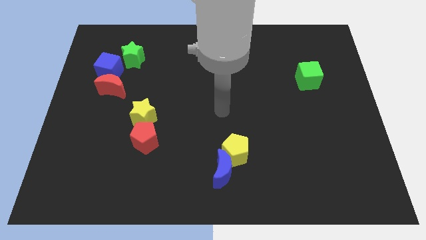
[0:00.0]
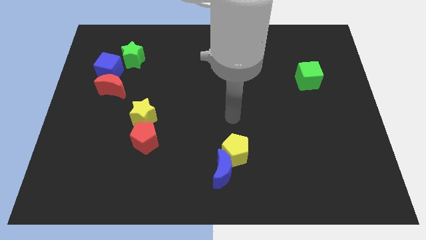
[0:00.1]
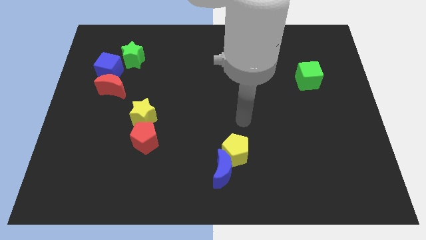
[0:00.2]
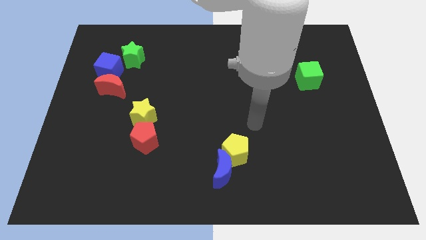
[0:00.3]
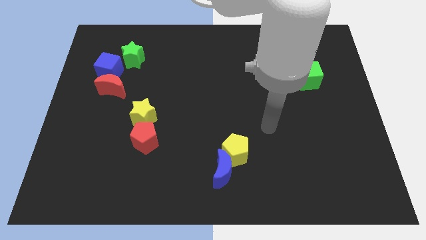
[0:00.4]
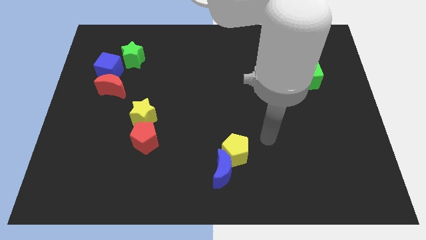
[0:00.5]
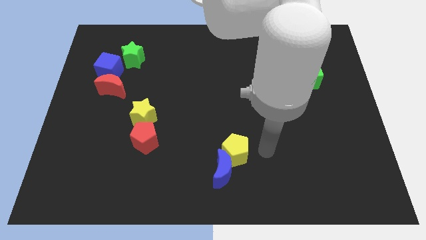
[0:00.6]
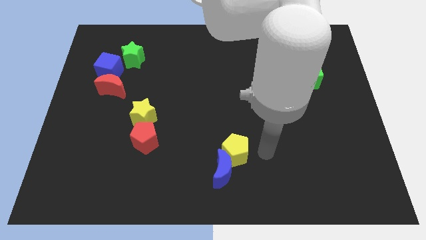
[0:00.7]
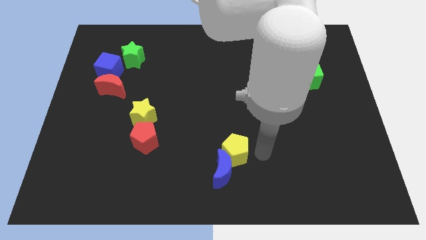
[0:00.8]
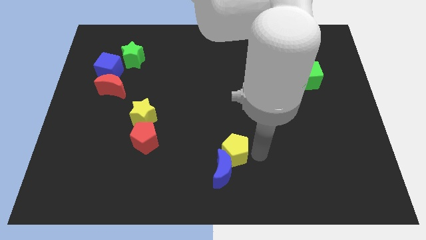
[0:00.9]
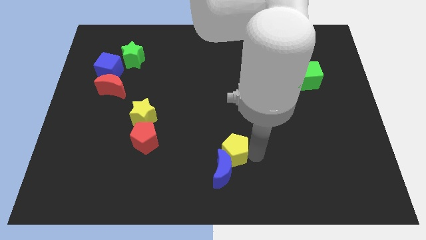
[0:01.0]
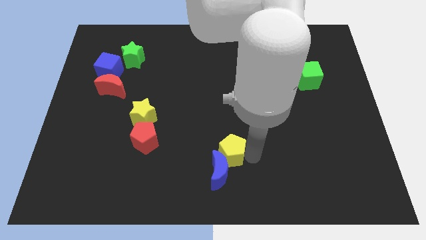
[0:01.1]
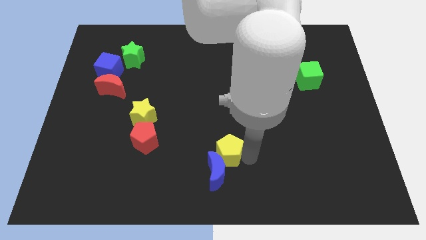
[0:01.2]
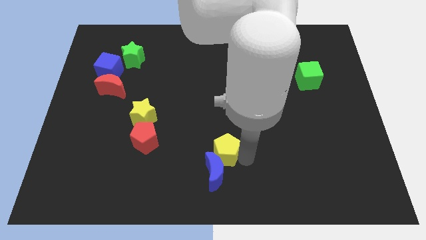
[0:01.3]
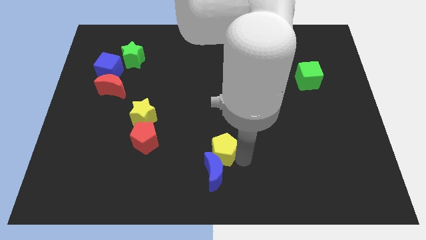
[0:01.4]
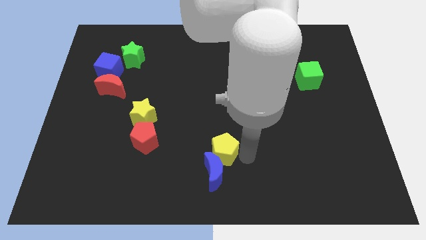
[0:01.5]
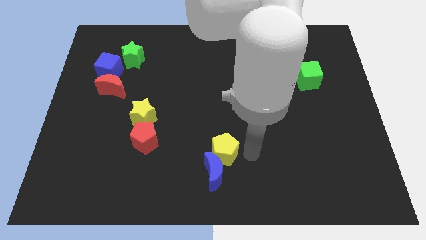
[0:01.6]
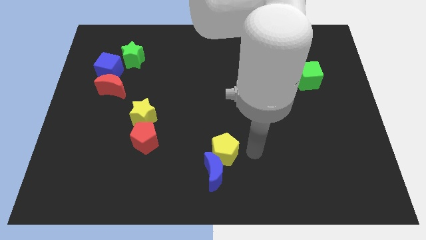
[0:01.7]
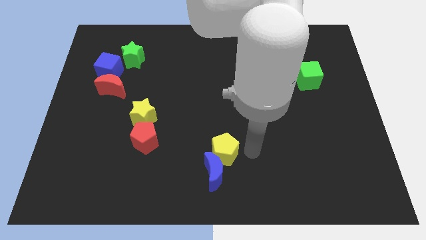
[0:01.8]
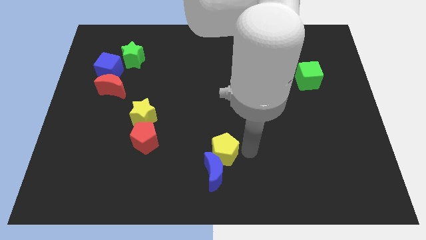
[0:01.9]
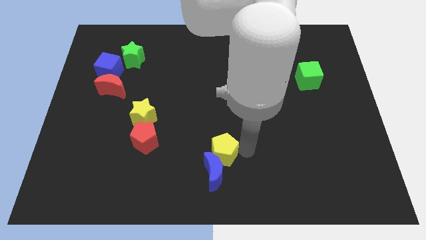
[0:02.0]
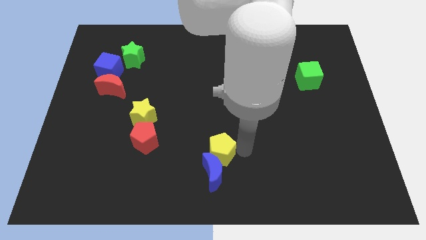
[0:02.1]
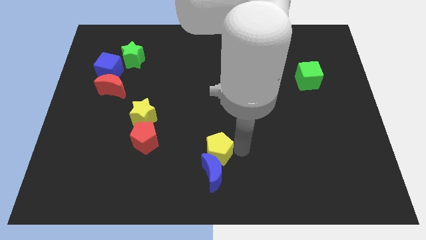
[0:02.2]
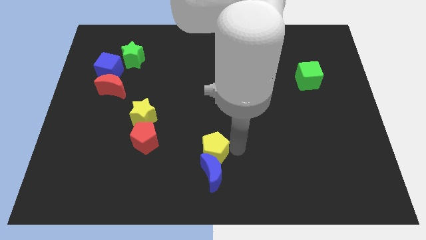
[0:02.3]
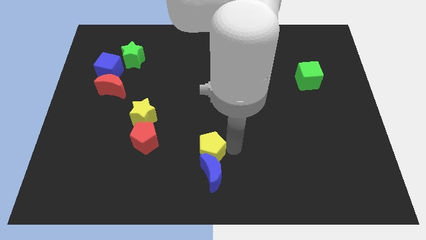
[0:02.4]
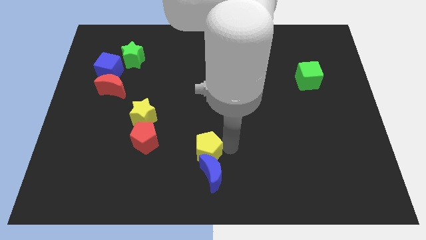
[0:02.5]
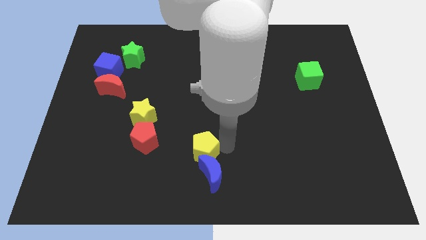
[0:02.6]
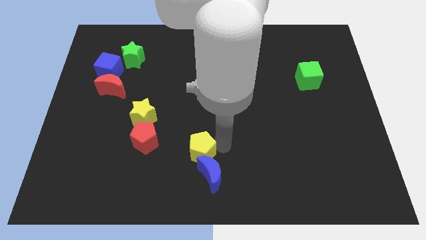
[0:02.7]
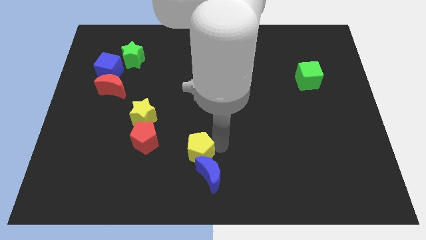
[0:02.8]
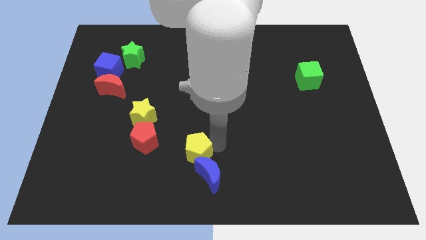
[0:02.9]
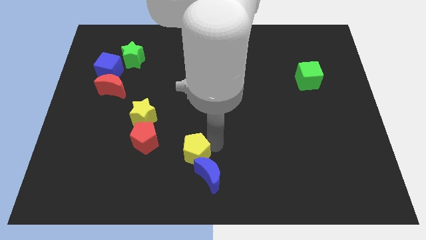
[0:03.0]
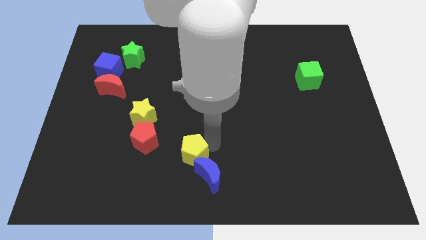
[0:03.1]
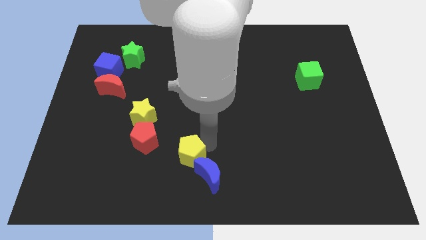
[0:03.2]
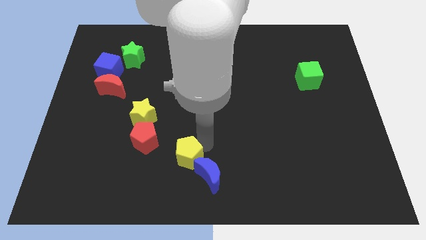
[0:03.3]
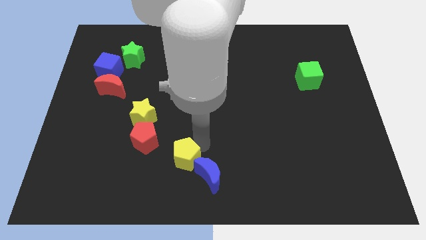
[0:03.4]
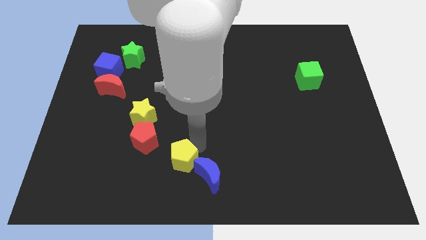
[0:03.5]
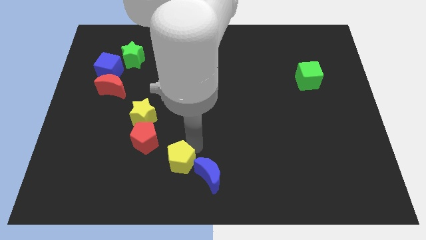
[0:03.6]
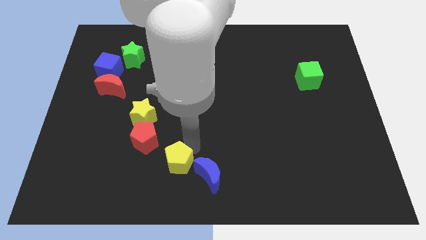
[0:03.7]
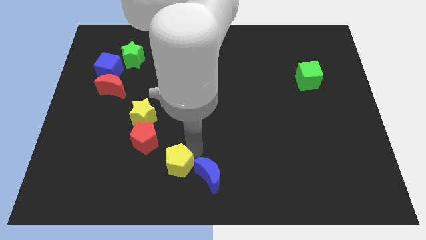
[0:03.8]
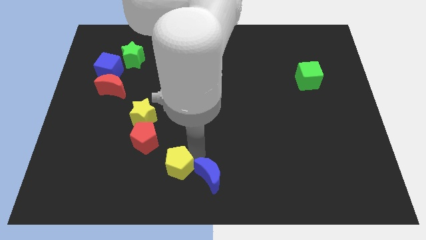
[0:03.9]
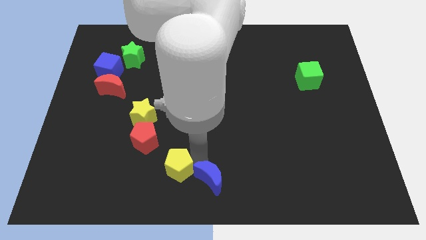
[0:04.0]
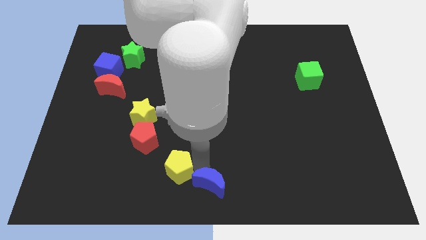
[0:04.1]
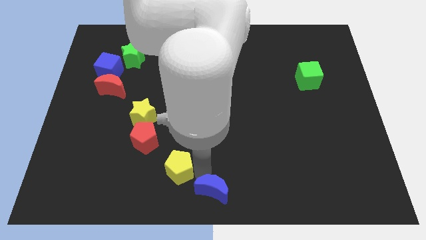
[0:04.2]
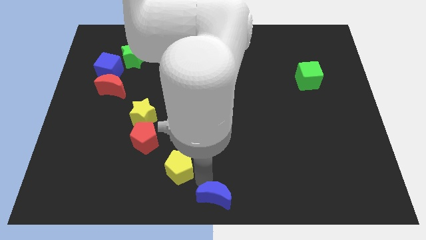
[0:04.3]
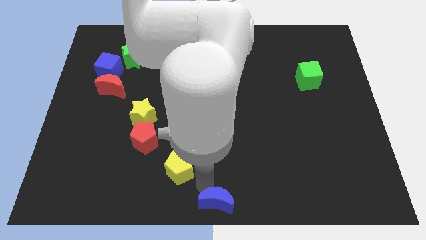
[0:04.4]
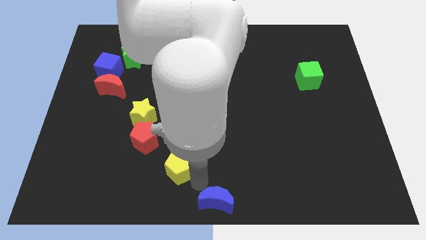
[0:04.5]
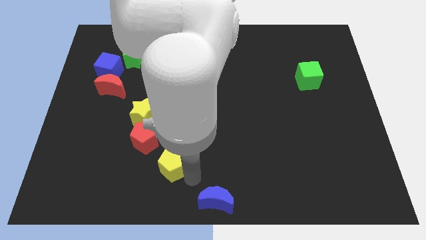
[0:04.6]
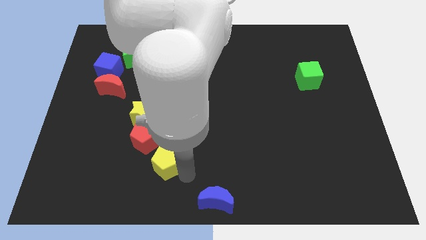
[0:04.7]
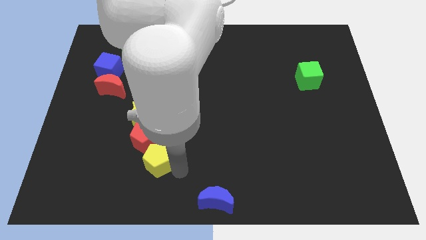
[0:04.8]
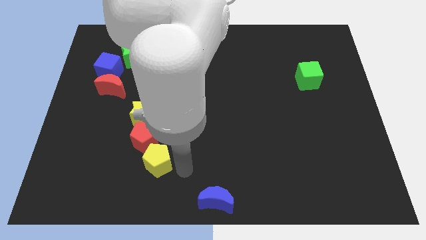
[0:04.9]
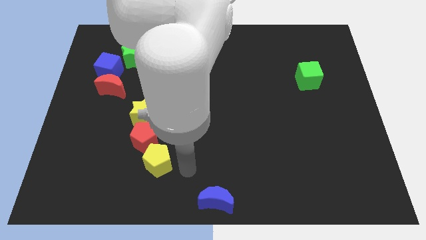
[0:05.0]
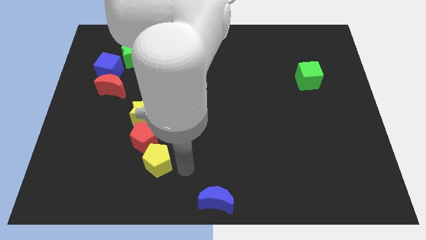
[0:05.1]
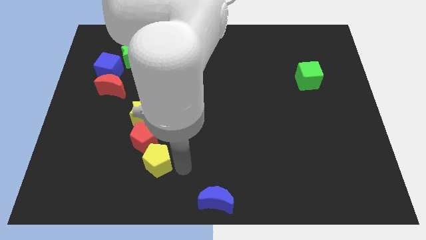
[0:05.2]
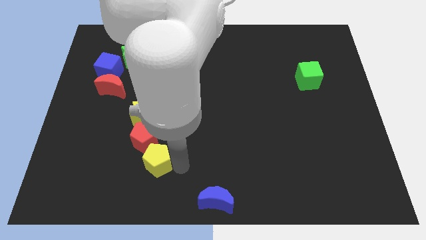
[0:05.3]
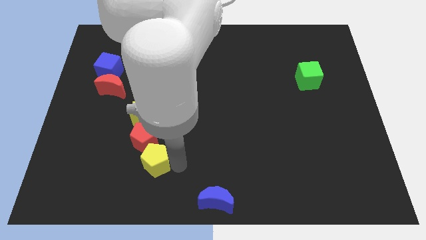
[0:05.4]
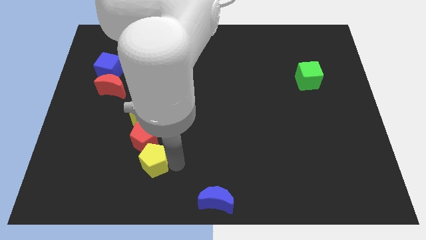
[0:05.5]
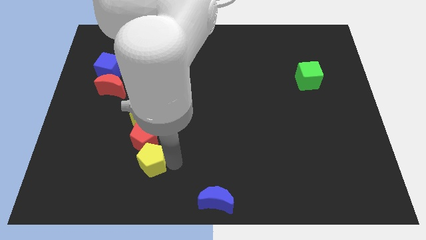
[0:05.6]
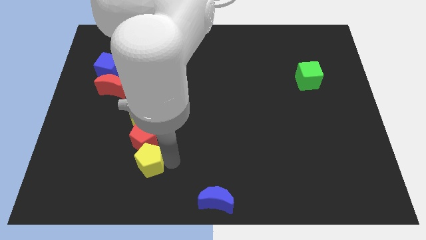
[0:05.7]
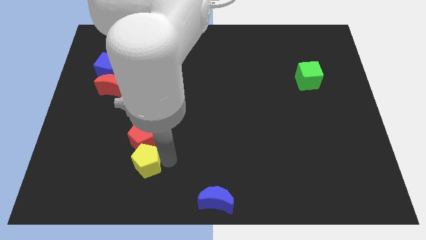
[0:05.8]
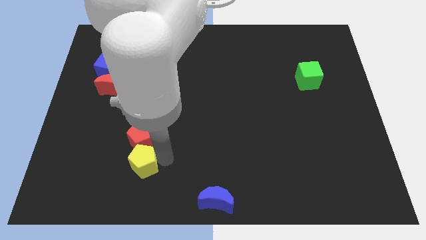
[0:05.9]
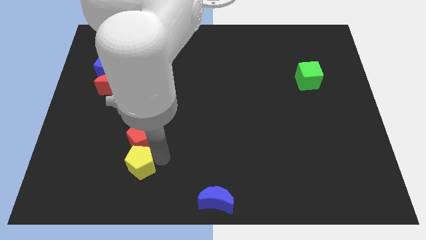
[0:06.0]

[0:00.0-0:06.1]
move the yellow pentagon to the left

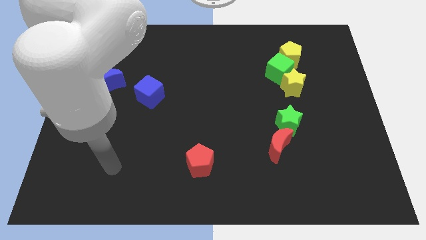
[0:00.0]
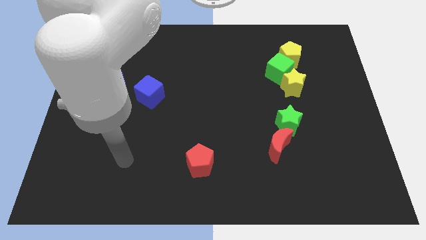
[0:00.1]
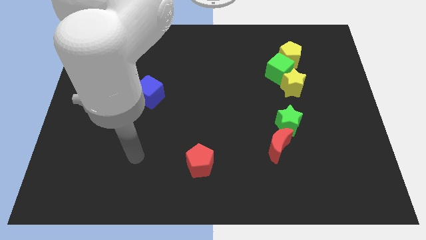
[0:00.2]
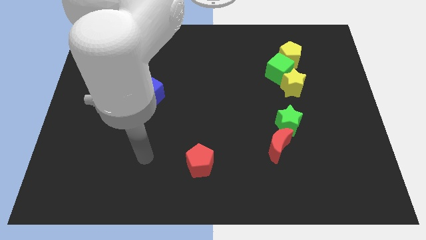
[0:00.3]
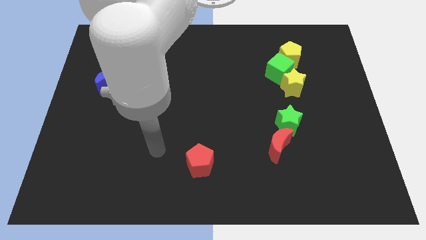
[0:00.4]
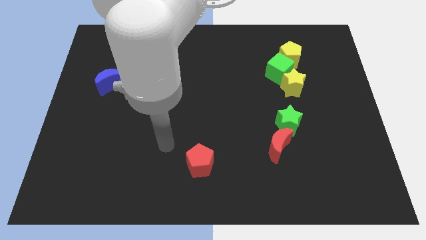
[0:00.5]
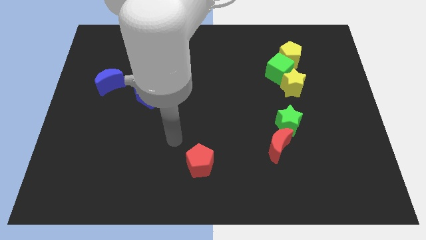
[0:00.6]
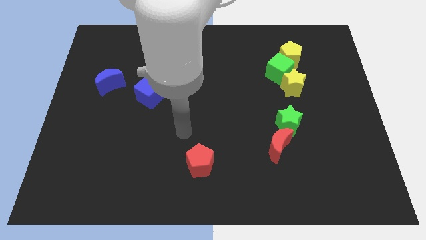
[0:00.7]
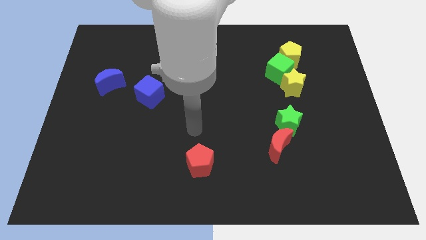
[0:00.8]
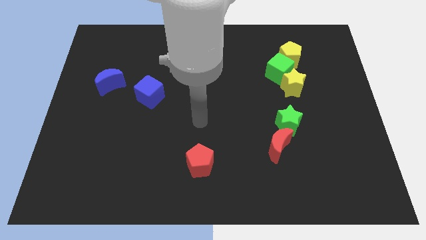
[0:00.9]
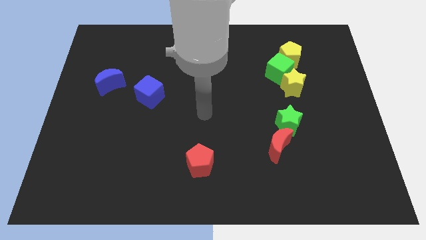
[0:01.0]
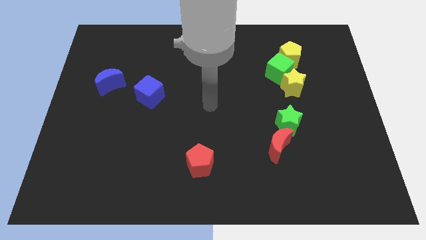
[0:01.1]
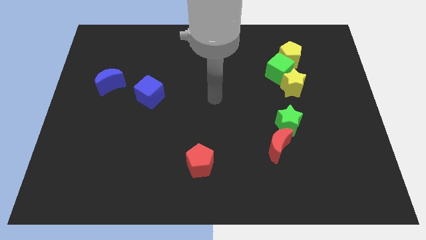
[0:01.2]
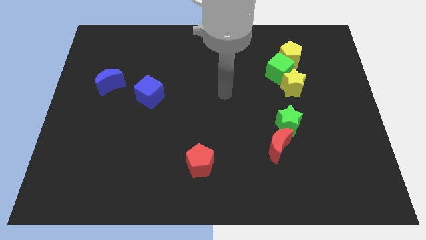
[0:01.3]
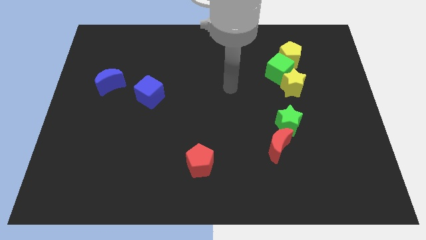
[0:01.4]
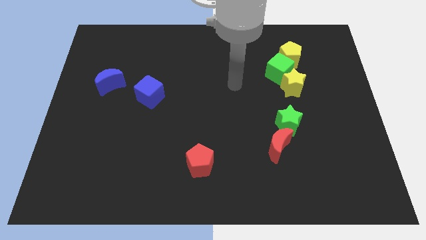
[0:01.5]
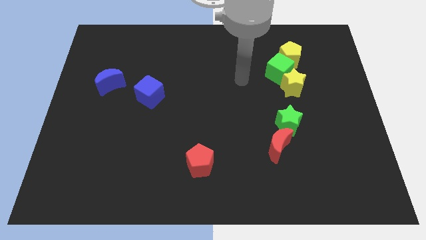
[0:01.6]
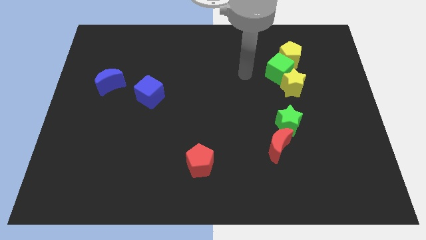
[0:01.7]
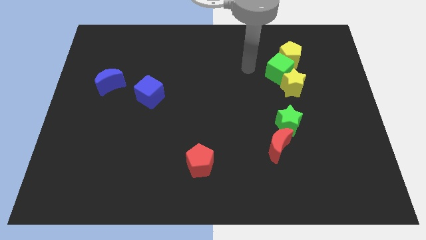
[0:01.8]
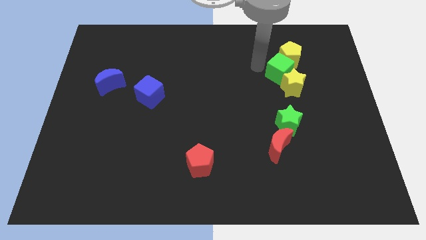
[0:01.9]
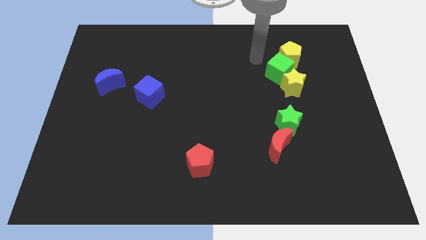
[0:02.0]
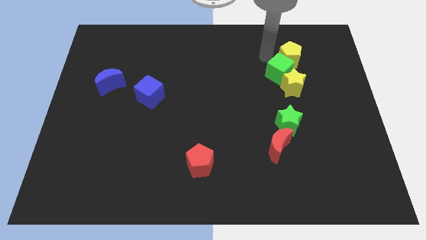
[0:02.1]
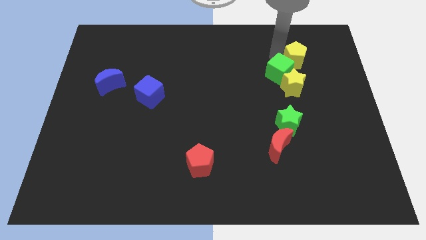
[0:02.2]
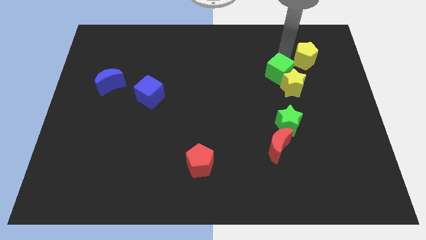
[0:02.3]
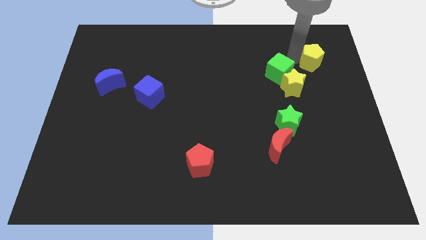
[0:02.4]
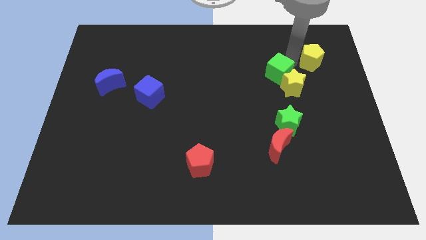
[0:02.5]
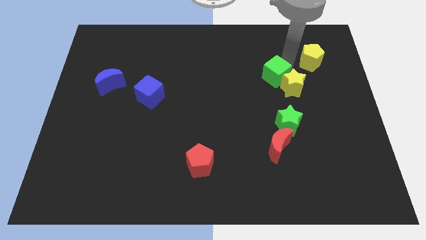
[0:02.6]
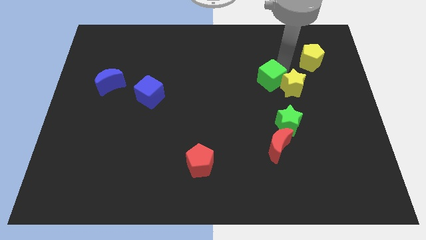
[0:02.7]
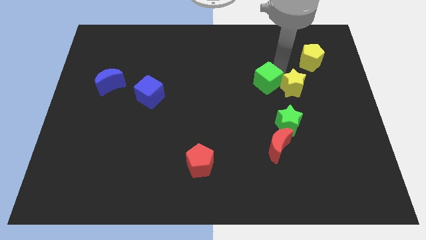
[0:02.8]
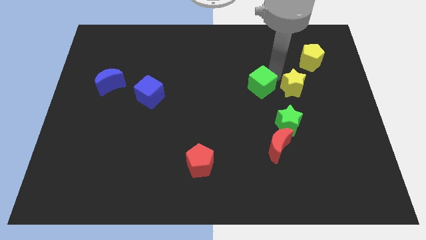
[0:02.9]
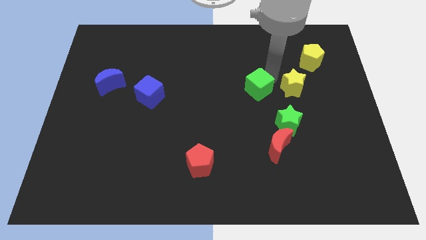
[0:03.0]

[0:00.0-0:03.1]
slightly move the green cube down and left diagonally
